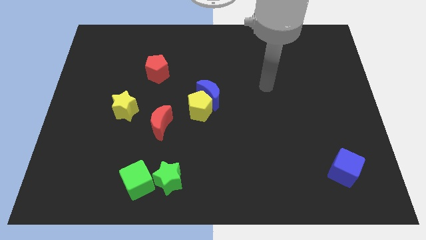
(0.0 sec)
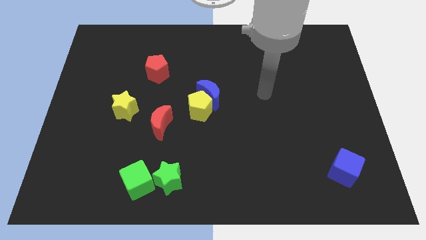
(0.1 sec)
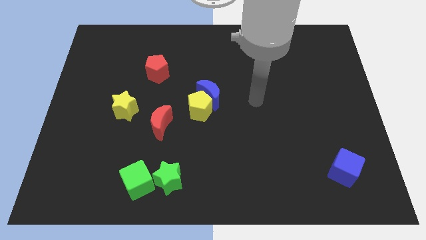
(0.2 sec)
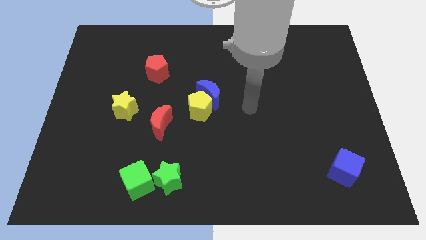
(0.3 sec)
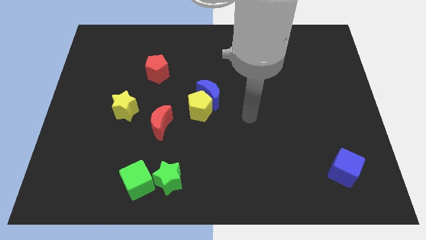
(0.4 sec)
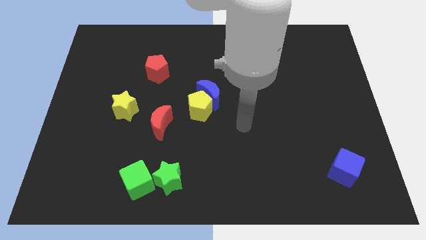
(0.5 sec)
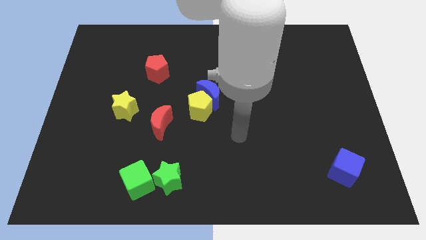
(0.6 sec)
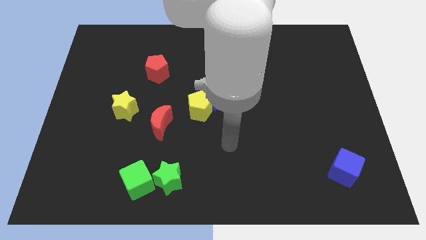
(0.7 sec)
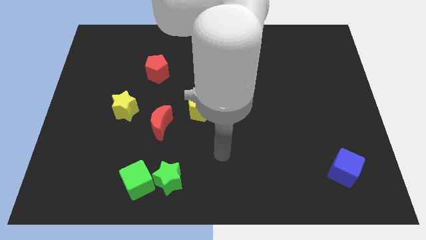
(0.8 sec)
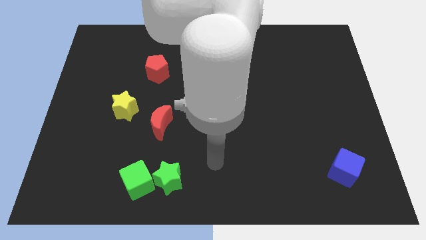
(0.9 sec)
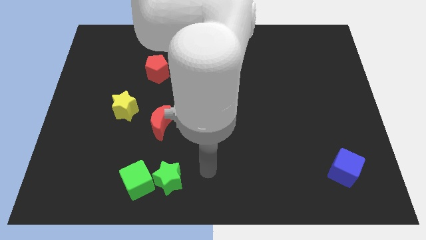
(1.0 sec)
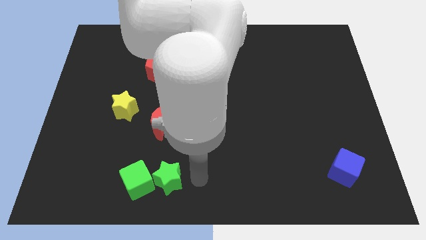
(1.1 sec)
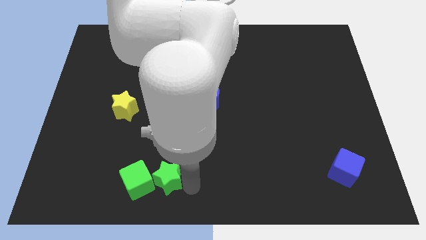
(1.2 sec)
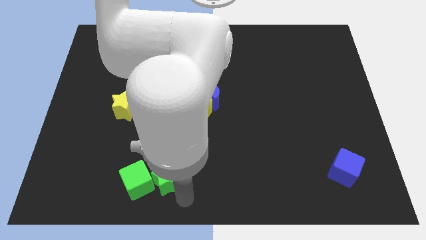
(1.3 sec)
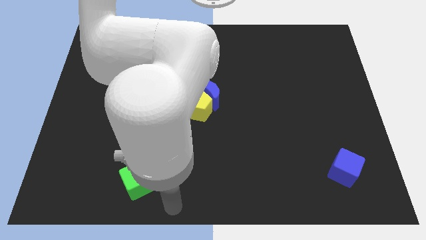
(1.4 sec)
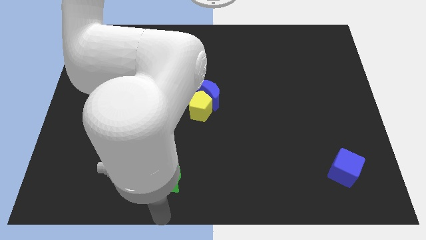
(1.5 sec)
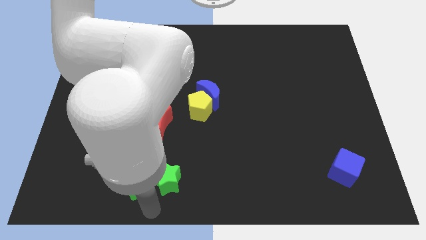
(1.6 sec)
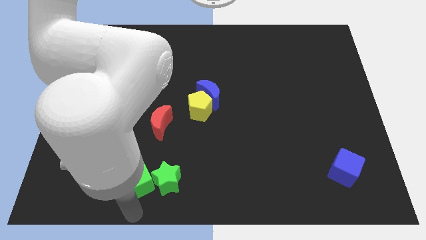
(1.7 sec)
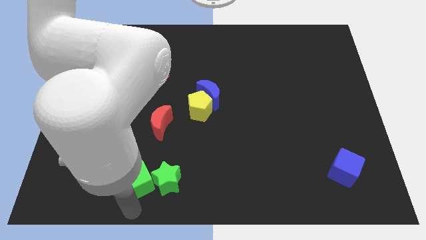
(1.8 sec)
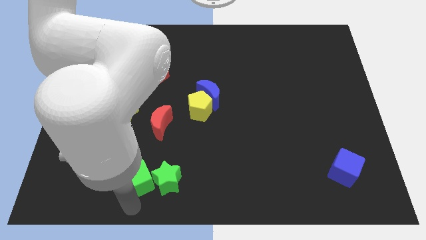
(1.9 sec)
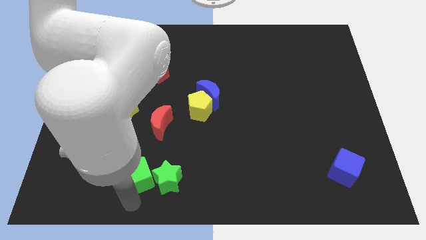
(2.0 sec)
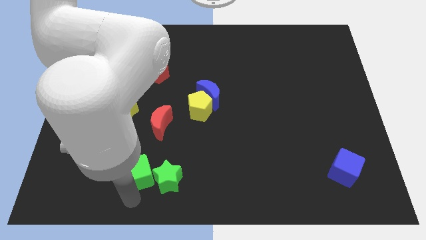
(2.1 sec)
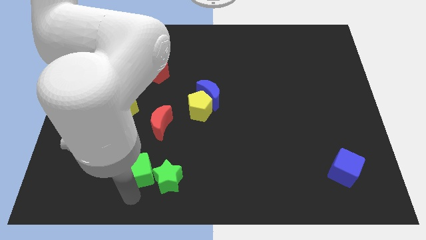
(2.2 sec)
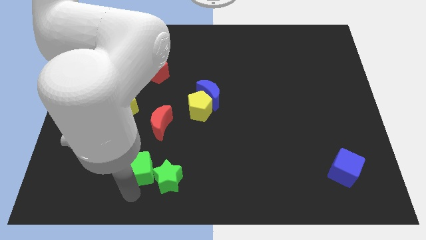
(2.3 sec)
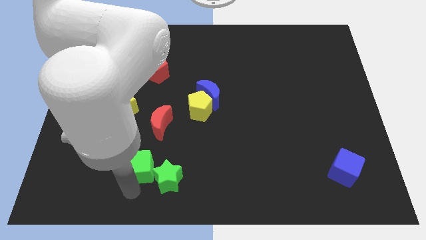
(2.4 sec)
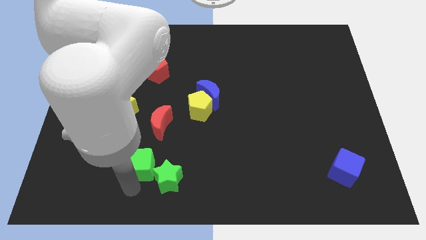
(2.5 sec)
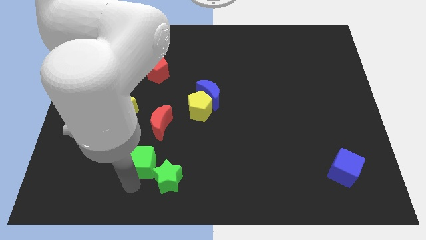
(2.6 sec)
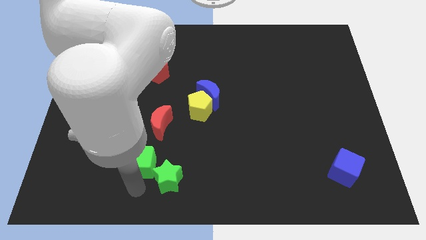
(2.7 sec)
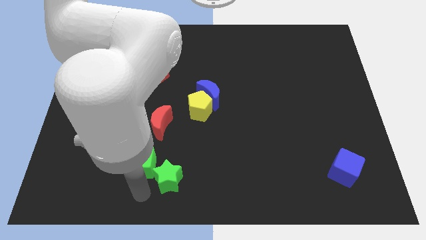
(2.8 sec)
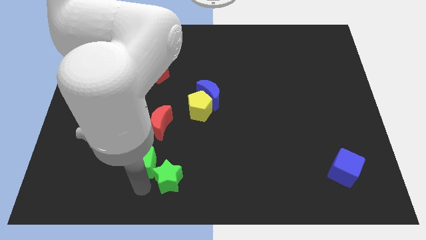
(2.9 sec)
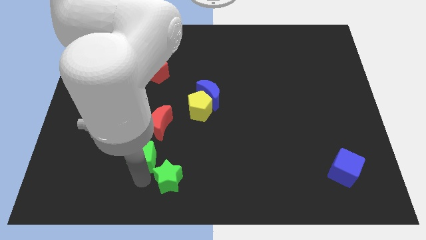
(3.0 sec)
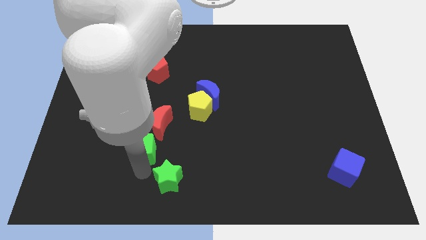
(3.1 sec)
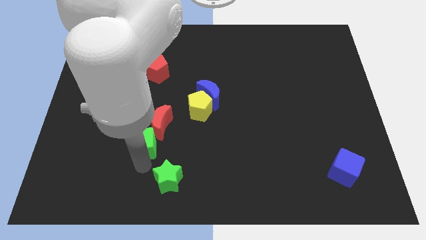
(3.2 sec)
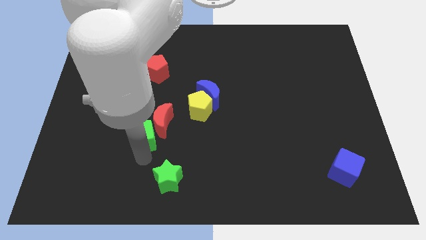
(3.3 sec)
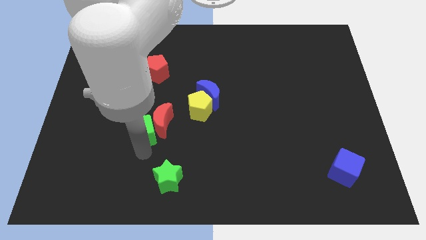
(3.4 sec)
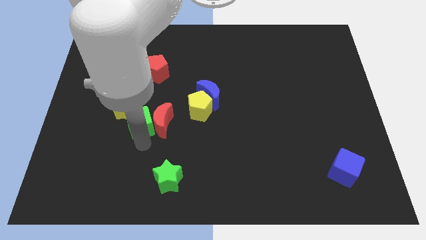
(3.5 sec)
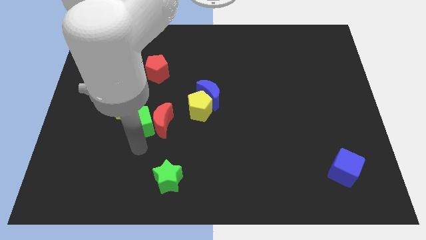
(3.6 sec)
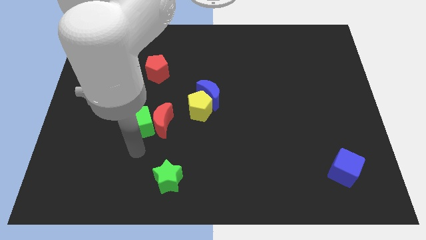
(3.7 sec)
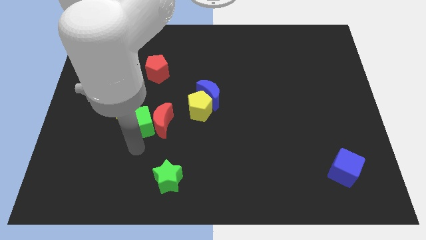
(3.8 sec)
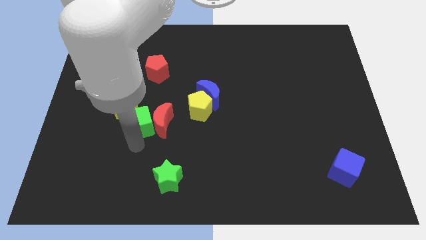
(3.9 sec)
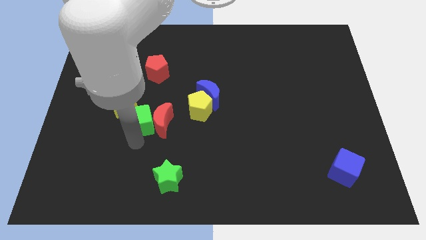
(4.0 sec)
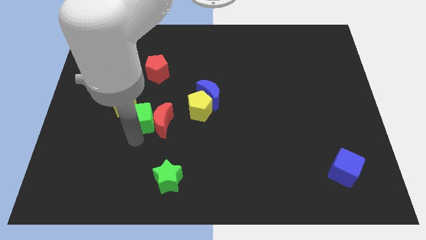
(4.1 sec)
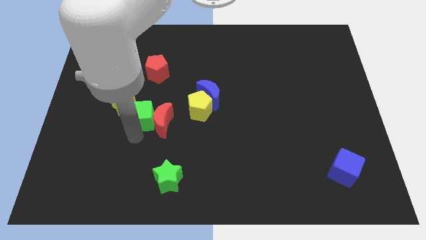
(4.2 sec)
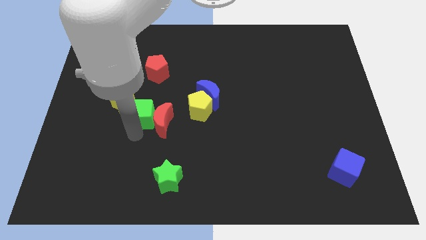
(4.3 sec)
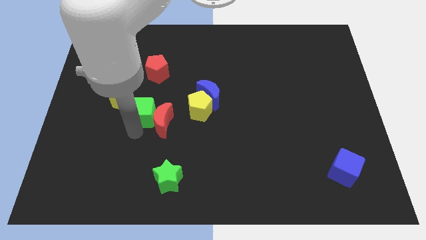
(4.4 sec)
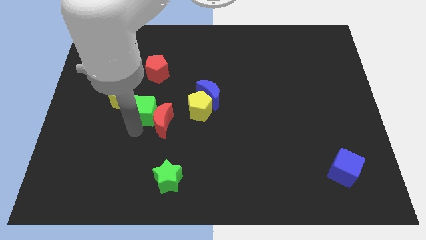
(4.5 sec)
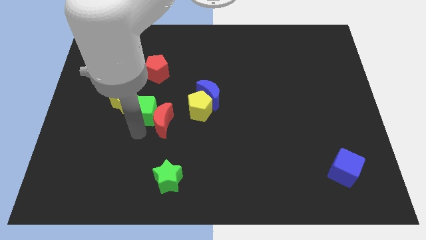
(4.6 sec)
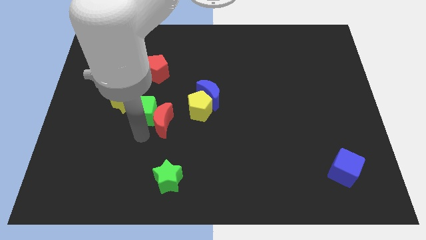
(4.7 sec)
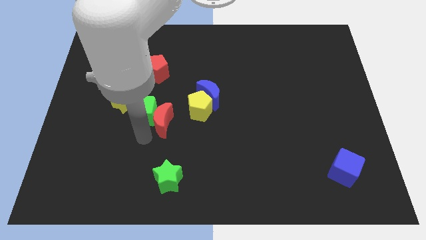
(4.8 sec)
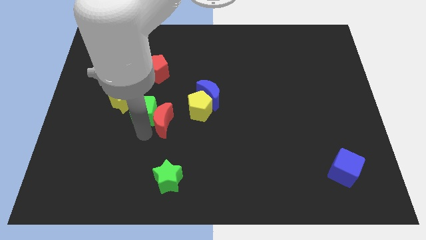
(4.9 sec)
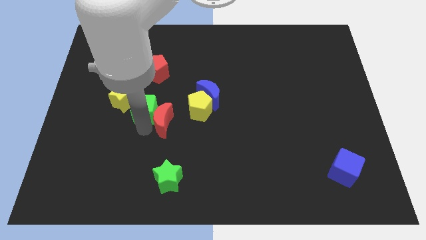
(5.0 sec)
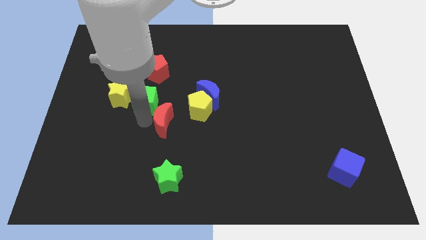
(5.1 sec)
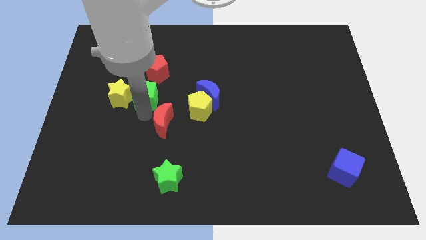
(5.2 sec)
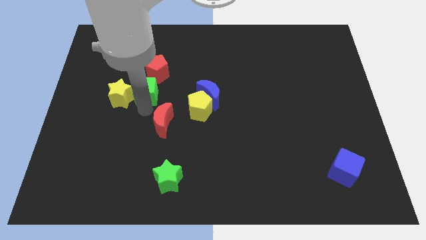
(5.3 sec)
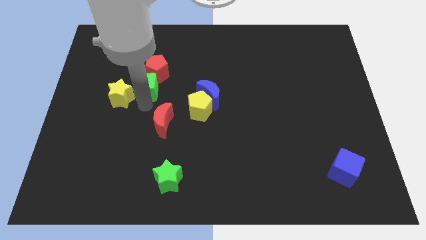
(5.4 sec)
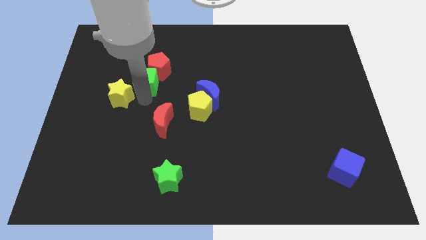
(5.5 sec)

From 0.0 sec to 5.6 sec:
put the green cube towards the red pentagon

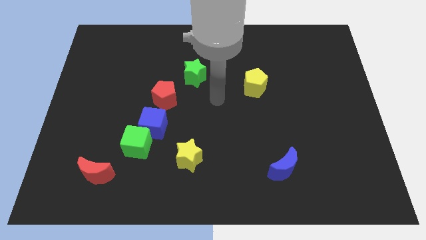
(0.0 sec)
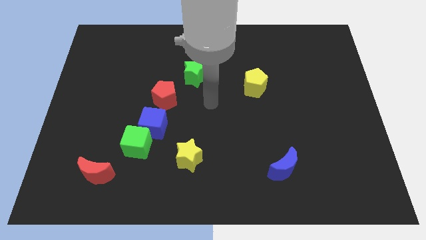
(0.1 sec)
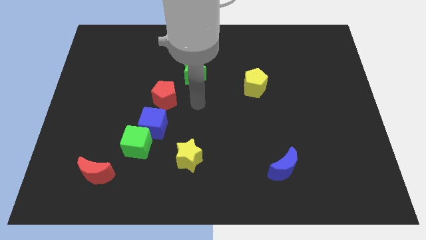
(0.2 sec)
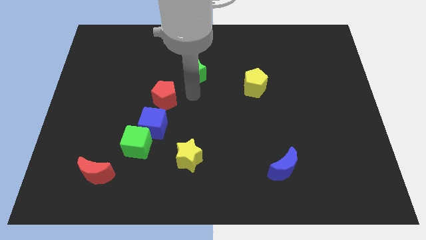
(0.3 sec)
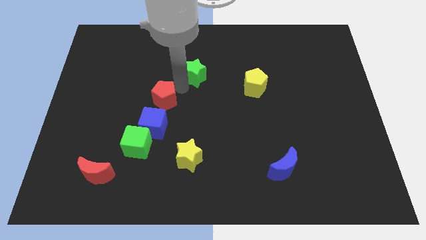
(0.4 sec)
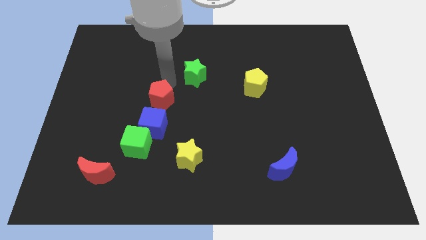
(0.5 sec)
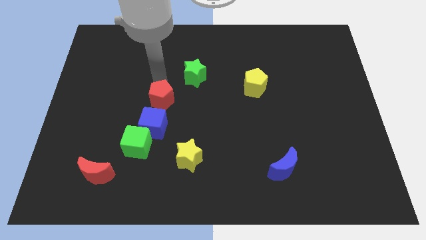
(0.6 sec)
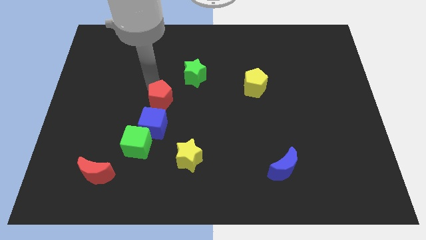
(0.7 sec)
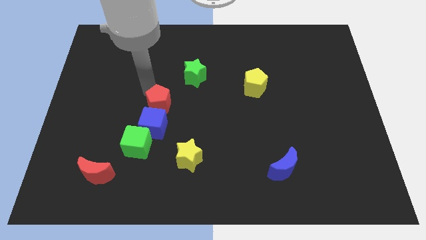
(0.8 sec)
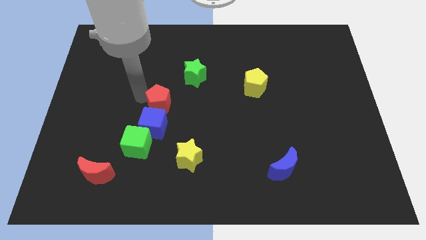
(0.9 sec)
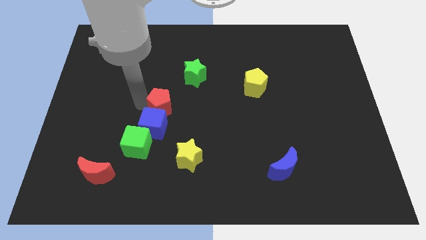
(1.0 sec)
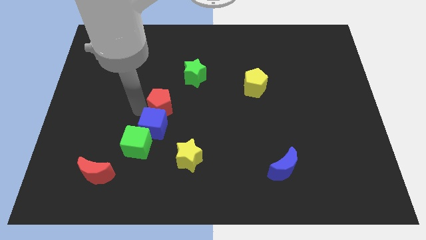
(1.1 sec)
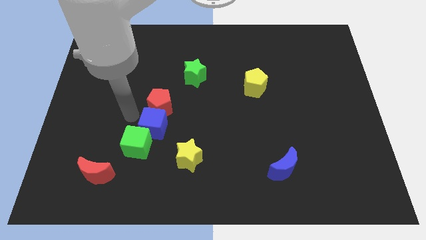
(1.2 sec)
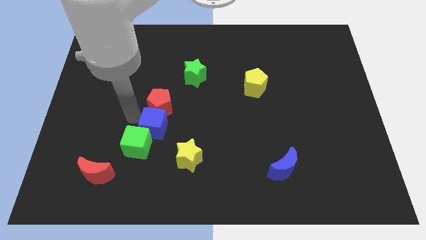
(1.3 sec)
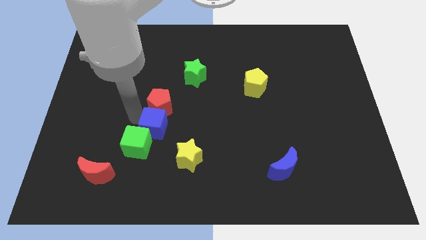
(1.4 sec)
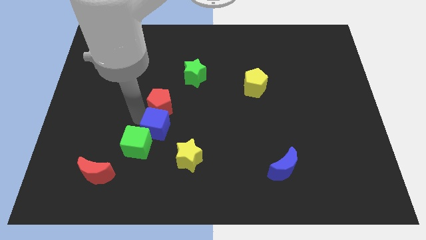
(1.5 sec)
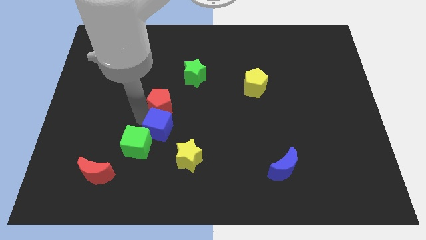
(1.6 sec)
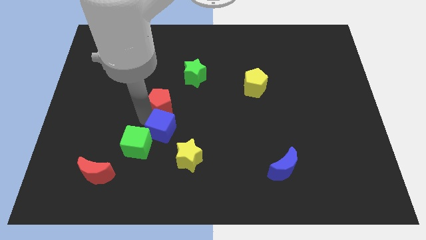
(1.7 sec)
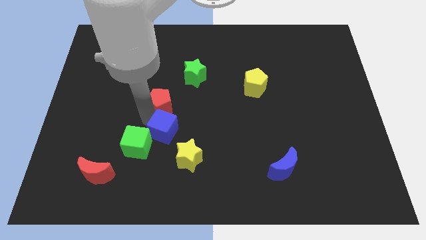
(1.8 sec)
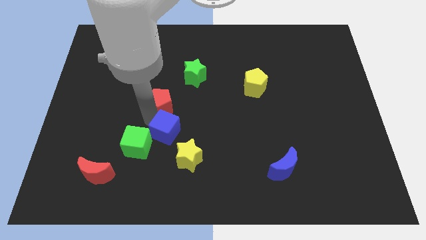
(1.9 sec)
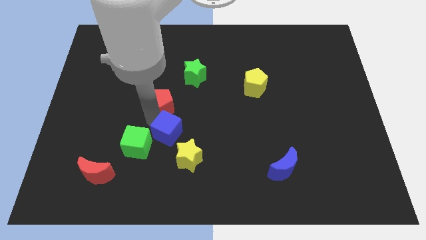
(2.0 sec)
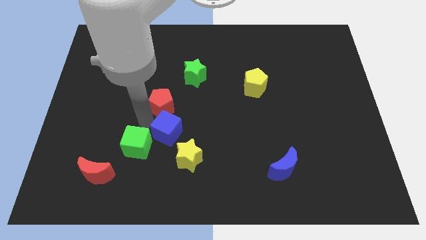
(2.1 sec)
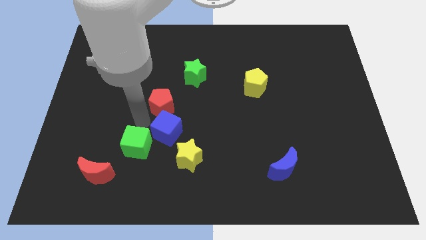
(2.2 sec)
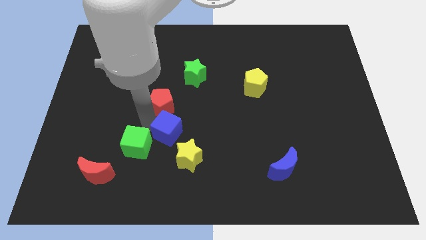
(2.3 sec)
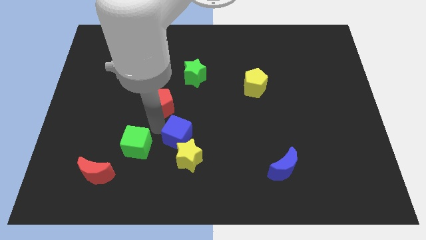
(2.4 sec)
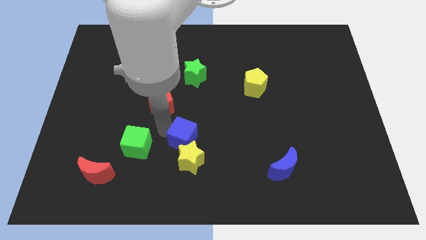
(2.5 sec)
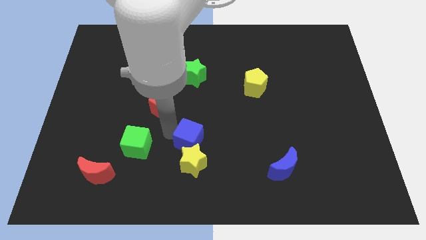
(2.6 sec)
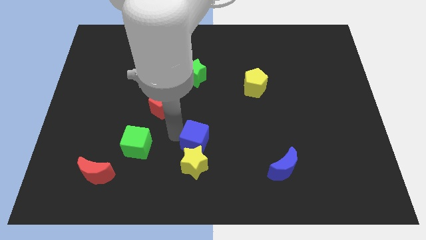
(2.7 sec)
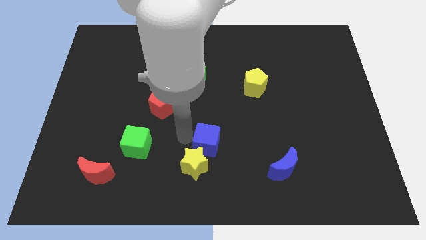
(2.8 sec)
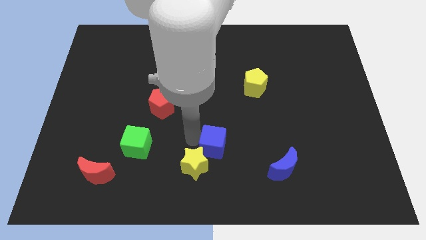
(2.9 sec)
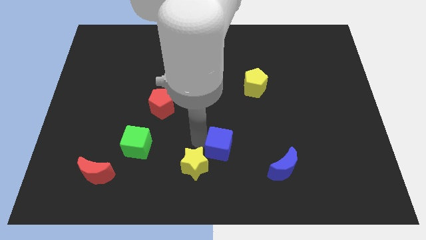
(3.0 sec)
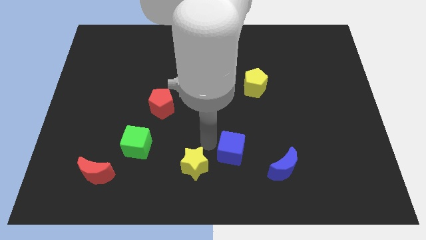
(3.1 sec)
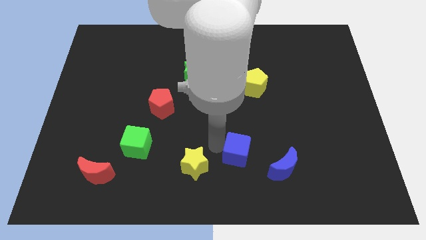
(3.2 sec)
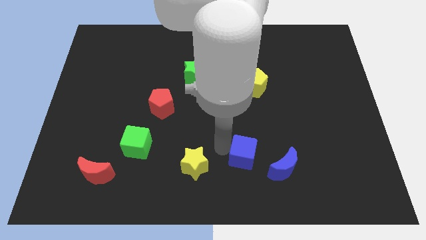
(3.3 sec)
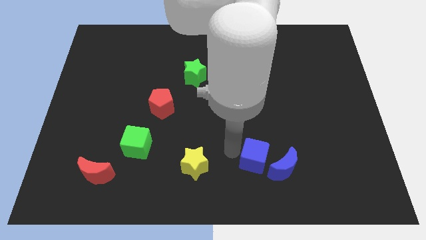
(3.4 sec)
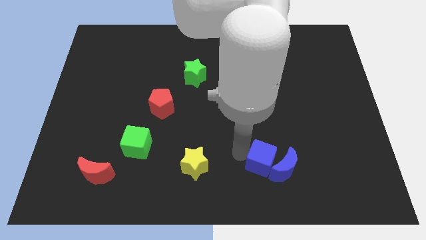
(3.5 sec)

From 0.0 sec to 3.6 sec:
slide the blue cube towards the blue moon
